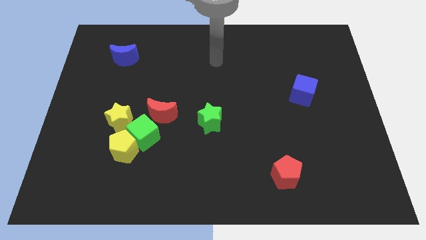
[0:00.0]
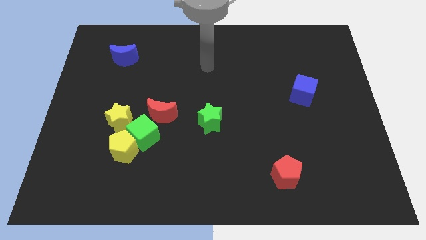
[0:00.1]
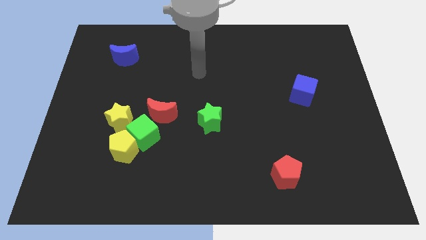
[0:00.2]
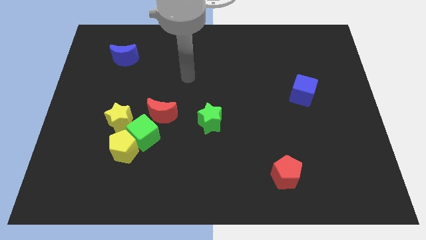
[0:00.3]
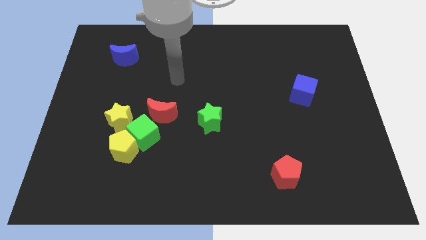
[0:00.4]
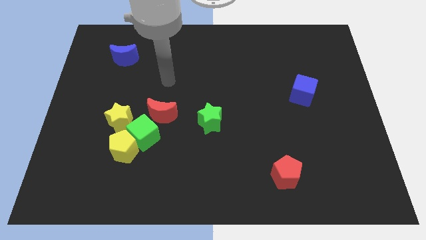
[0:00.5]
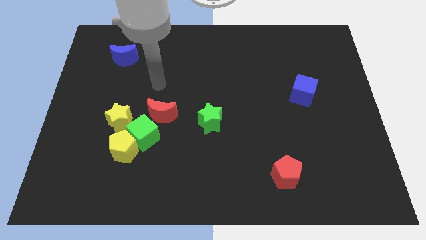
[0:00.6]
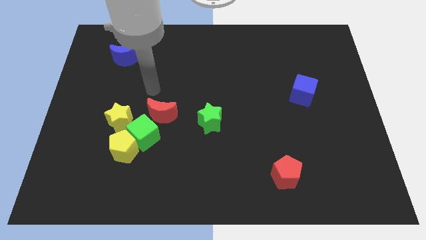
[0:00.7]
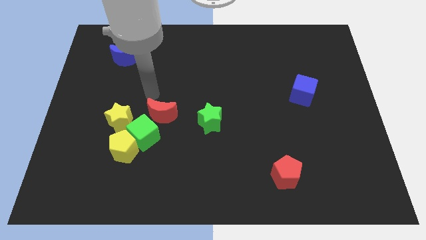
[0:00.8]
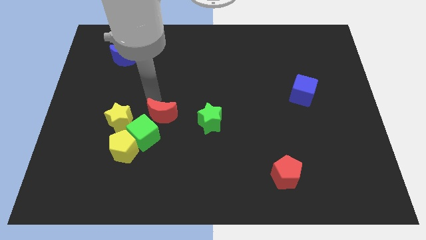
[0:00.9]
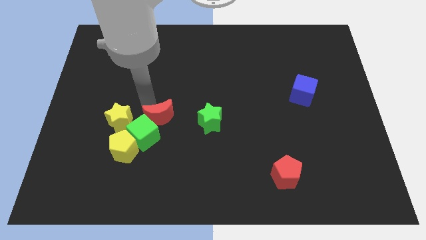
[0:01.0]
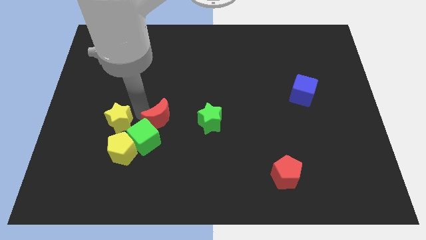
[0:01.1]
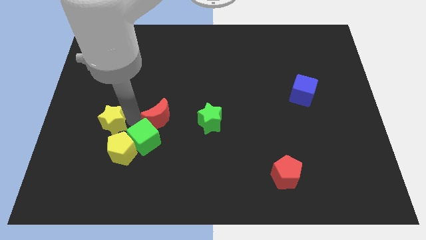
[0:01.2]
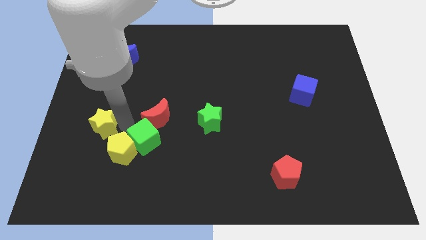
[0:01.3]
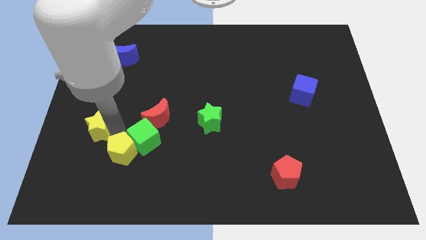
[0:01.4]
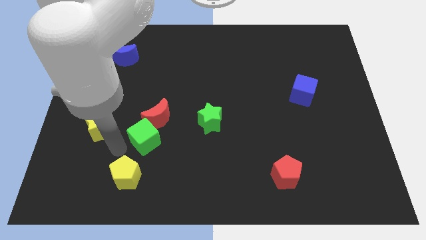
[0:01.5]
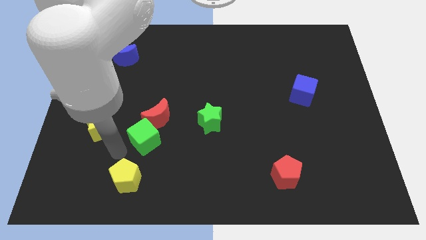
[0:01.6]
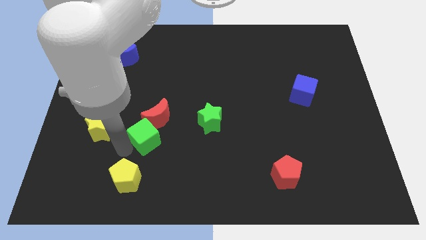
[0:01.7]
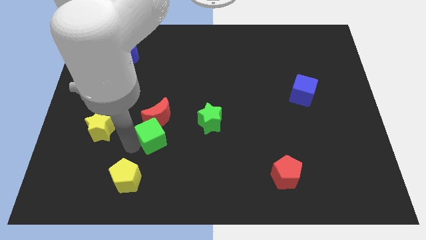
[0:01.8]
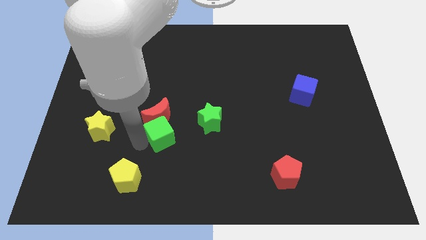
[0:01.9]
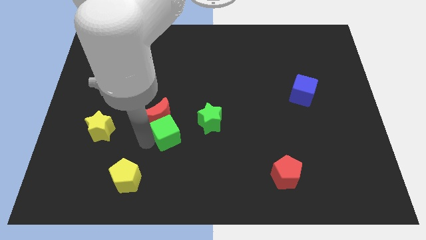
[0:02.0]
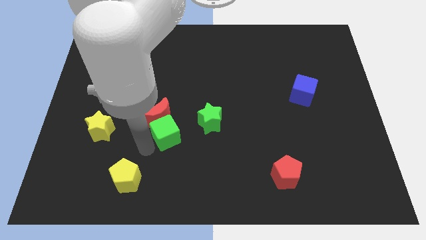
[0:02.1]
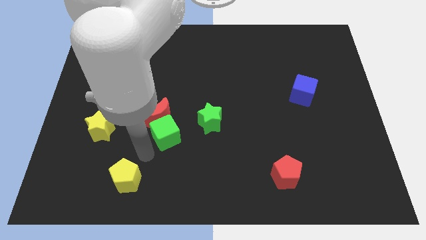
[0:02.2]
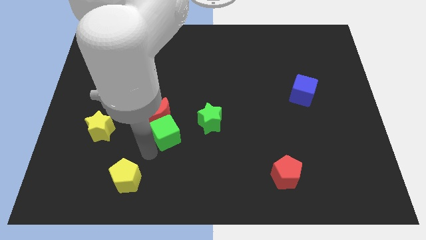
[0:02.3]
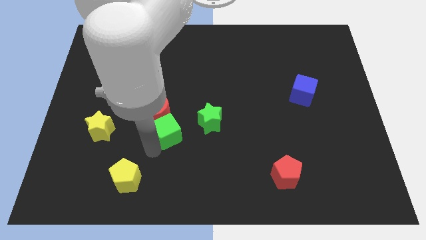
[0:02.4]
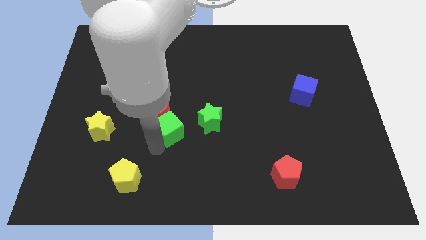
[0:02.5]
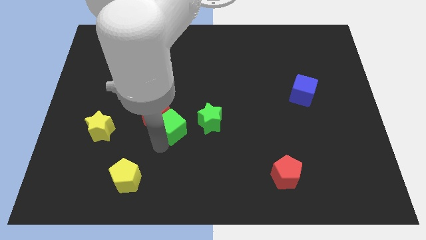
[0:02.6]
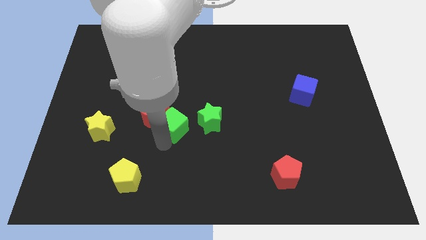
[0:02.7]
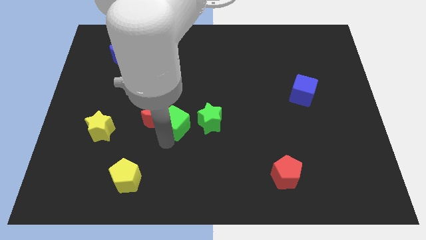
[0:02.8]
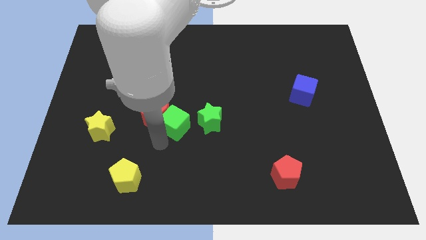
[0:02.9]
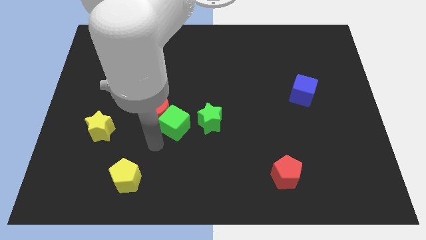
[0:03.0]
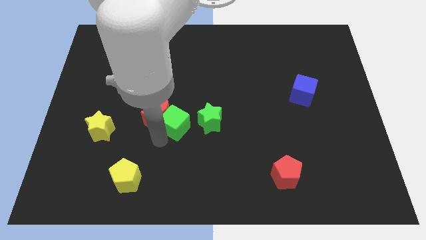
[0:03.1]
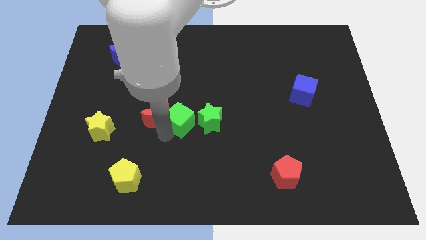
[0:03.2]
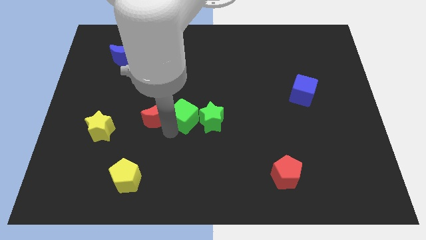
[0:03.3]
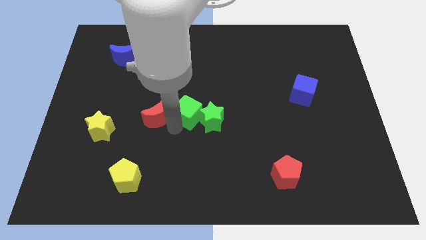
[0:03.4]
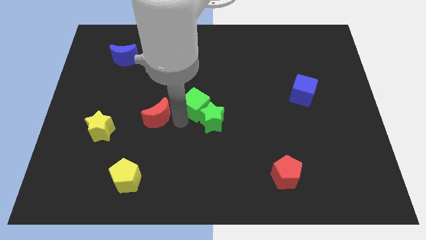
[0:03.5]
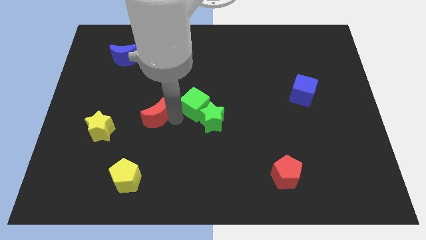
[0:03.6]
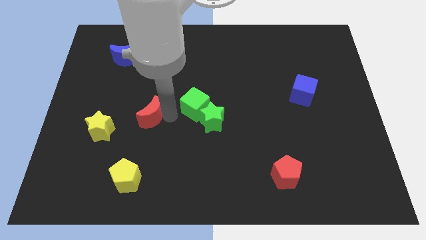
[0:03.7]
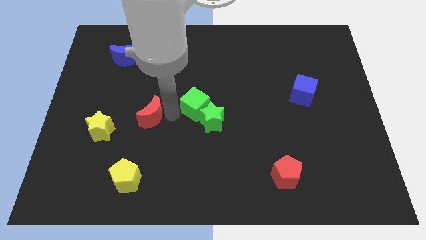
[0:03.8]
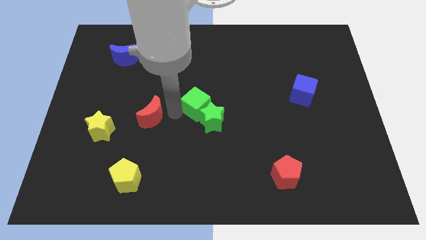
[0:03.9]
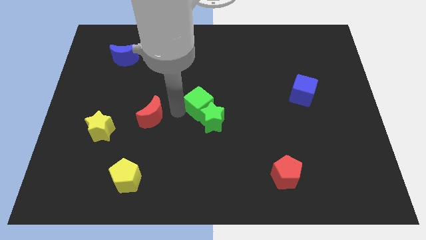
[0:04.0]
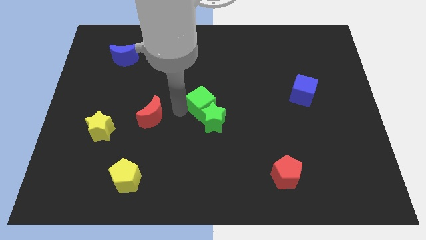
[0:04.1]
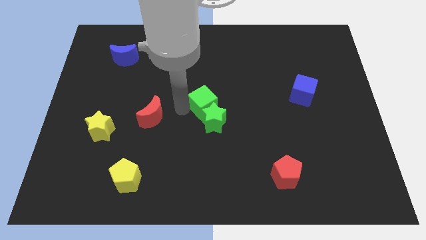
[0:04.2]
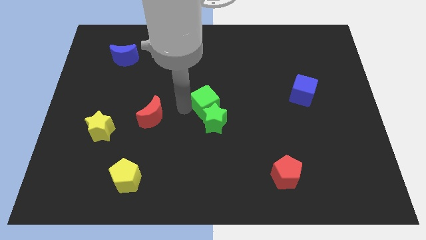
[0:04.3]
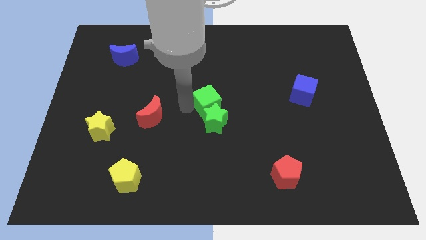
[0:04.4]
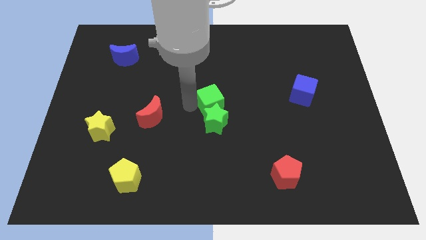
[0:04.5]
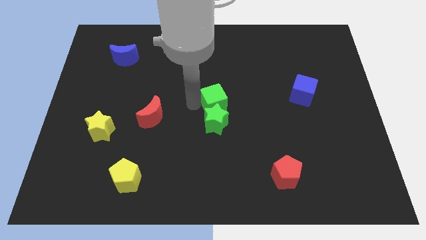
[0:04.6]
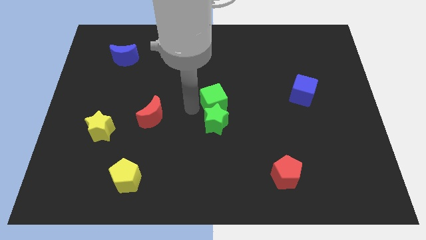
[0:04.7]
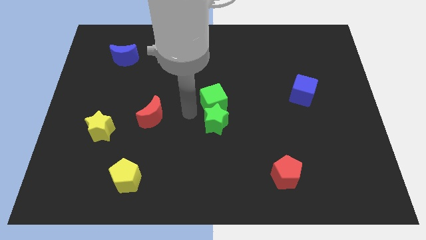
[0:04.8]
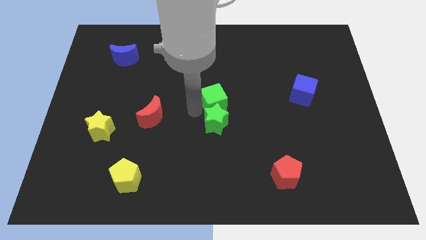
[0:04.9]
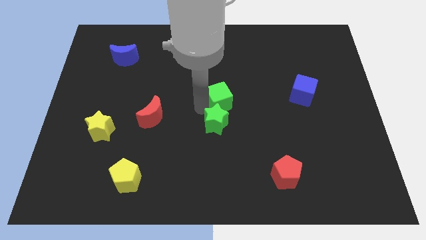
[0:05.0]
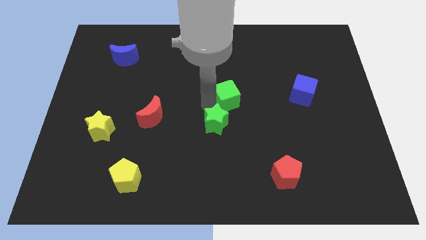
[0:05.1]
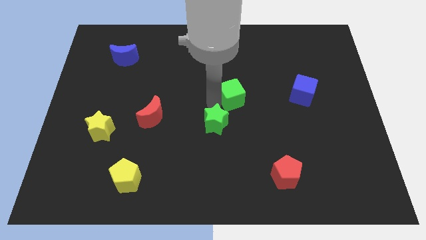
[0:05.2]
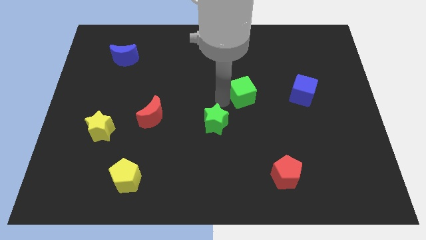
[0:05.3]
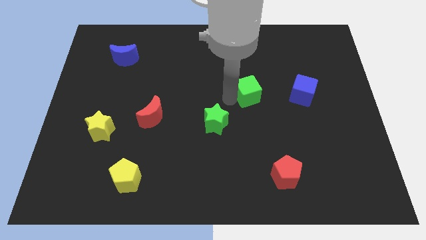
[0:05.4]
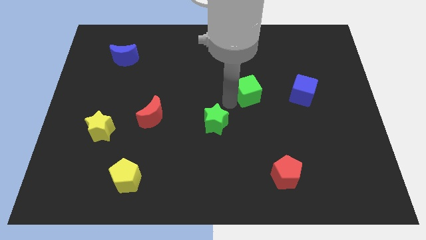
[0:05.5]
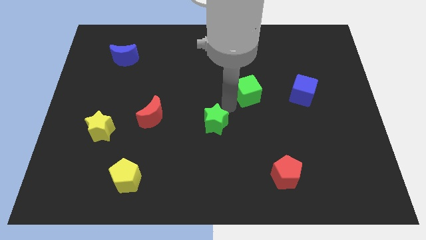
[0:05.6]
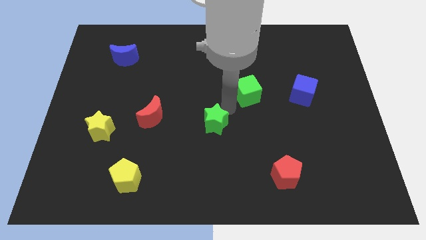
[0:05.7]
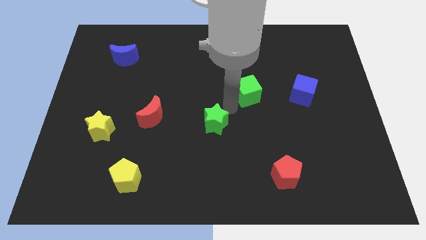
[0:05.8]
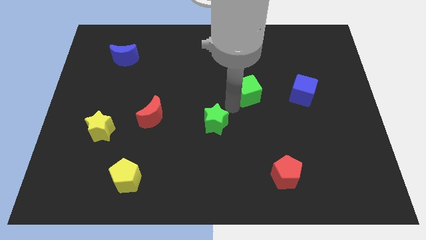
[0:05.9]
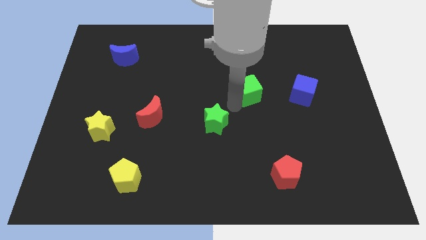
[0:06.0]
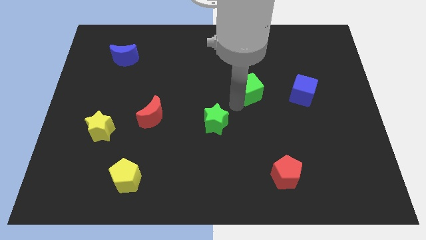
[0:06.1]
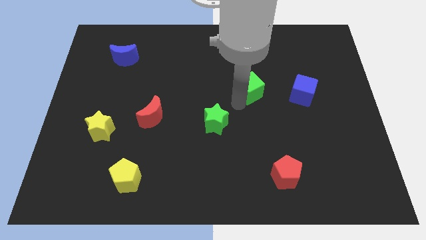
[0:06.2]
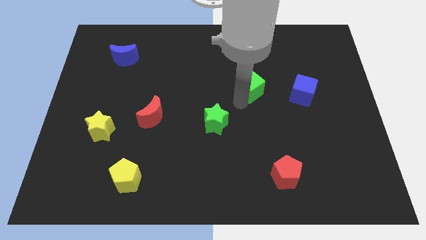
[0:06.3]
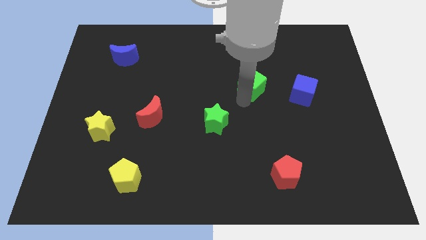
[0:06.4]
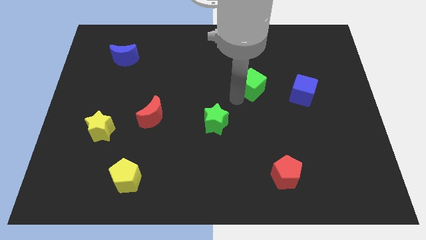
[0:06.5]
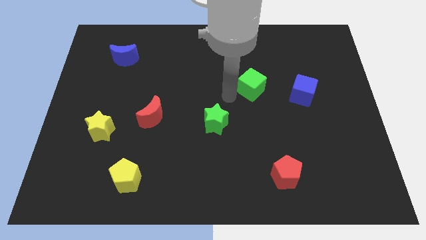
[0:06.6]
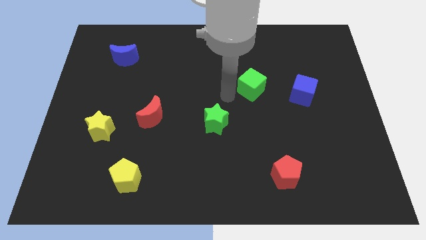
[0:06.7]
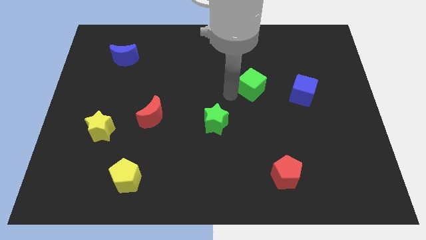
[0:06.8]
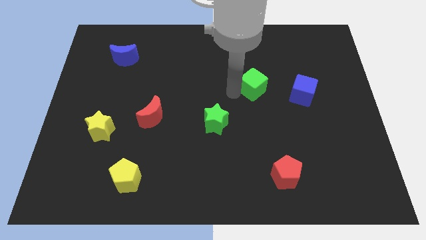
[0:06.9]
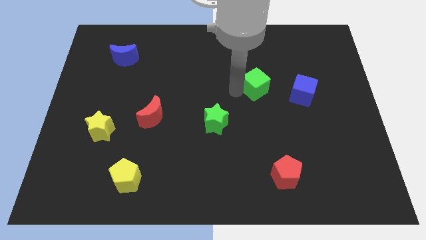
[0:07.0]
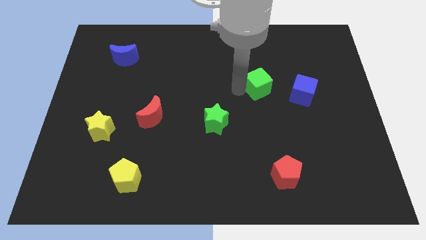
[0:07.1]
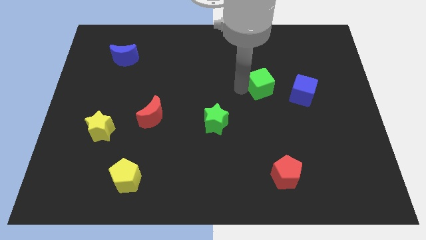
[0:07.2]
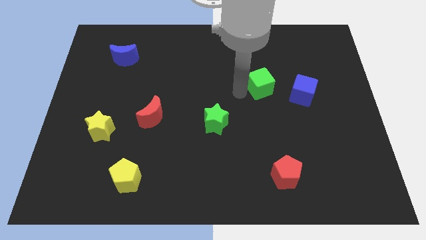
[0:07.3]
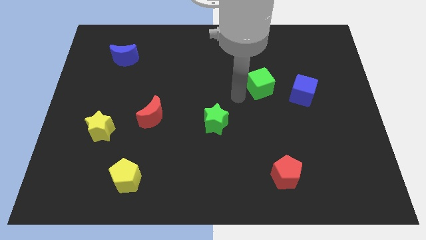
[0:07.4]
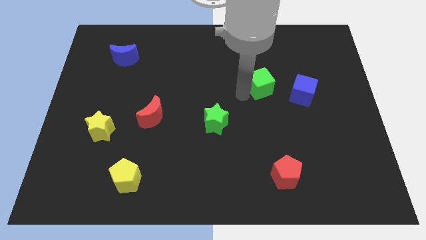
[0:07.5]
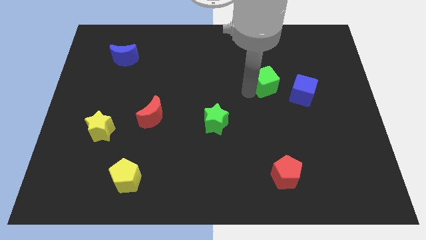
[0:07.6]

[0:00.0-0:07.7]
slide the green cube diagonally up and to the left of the blue cube
